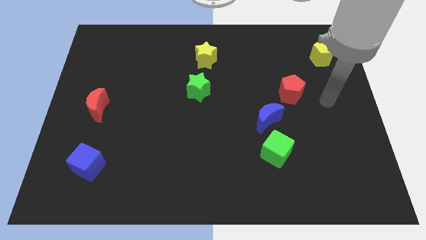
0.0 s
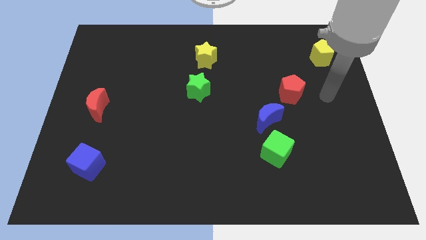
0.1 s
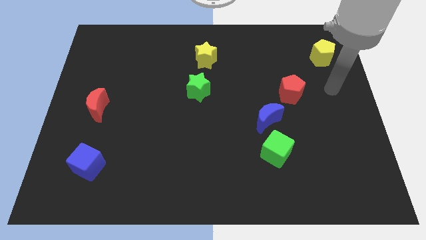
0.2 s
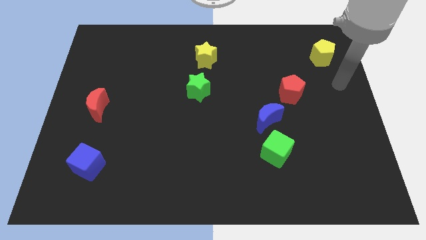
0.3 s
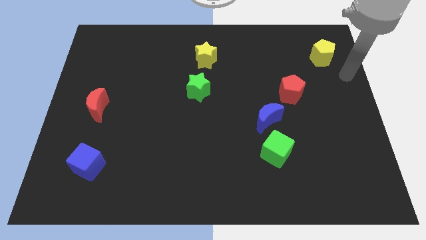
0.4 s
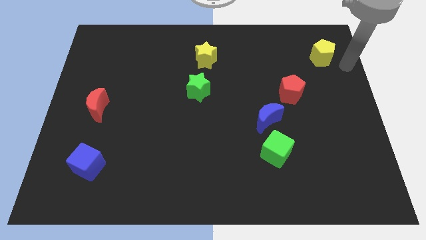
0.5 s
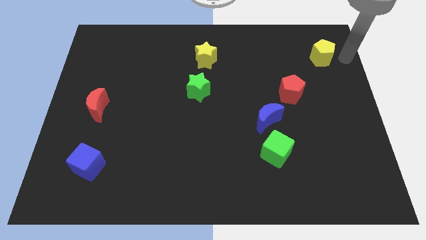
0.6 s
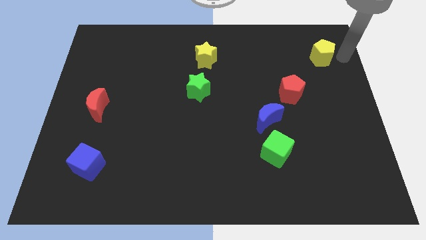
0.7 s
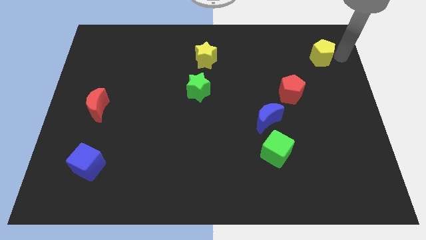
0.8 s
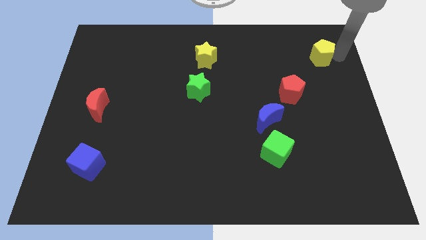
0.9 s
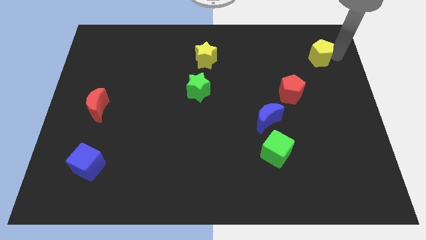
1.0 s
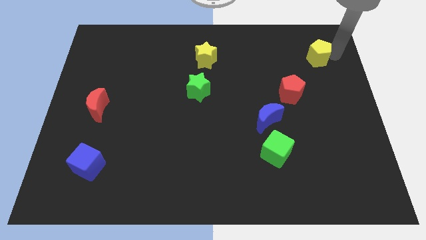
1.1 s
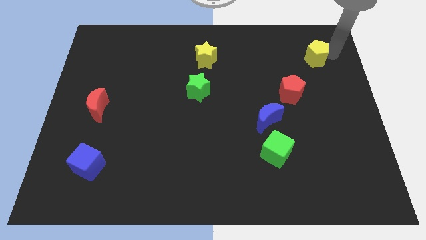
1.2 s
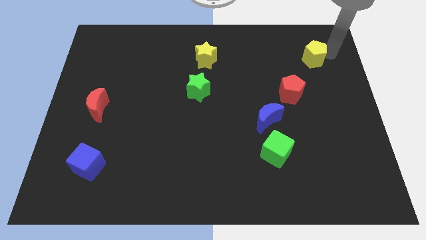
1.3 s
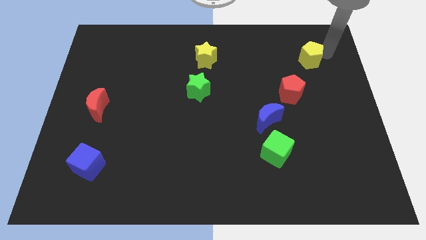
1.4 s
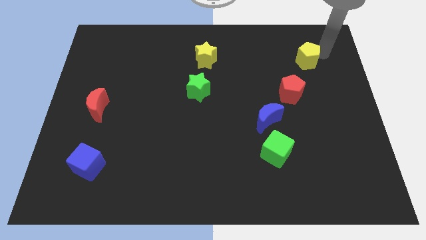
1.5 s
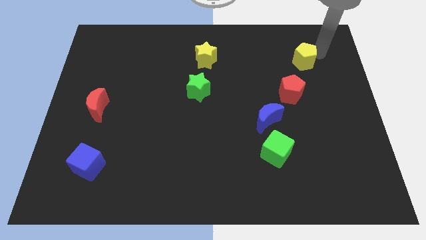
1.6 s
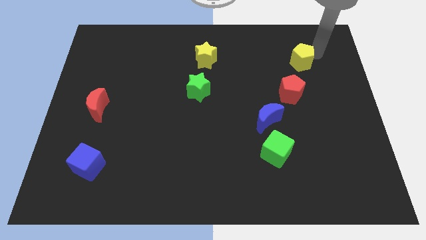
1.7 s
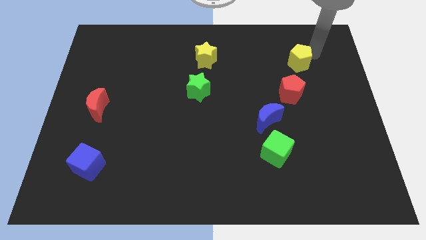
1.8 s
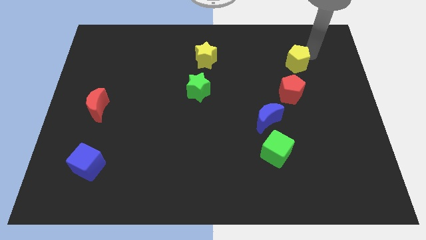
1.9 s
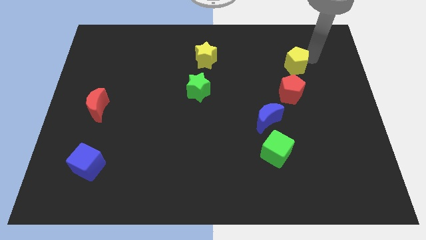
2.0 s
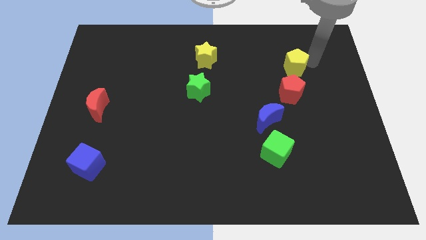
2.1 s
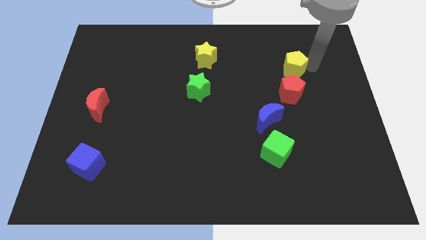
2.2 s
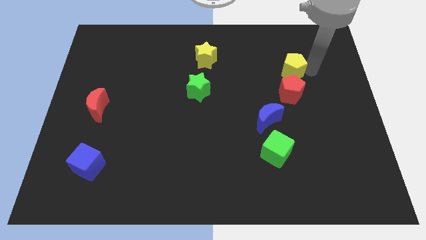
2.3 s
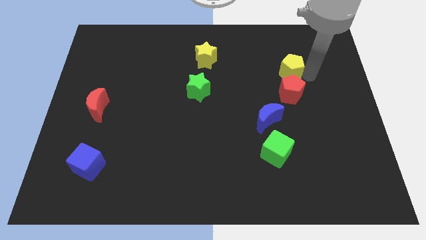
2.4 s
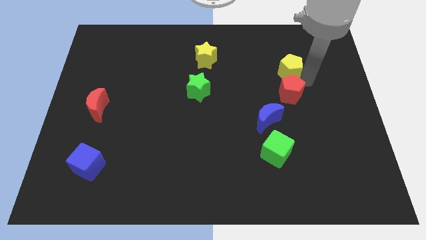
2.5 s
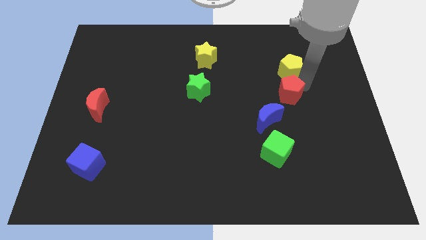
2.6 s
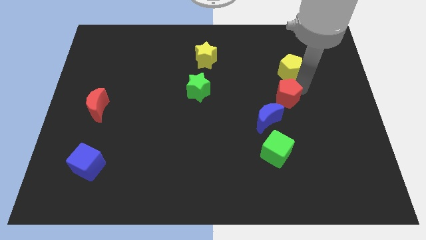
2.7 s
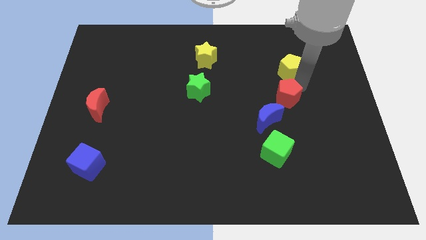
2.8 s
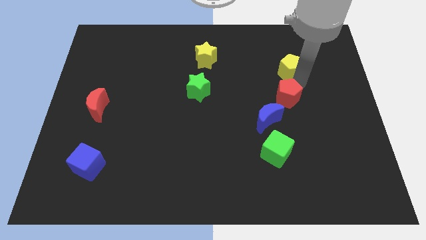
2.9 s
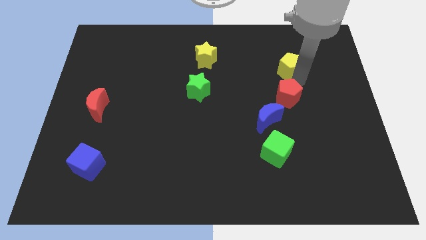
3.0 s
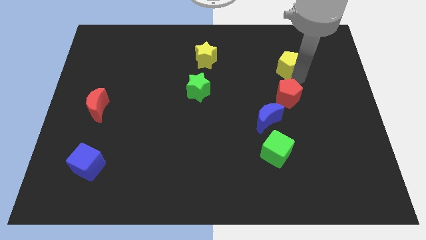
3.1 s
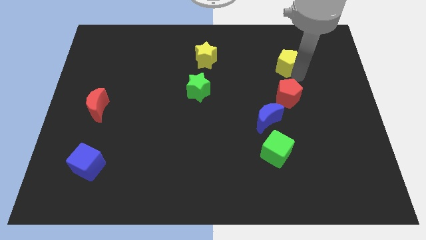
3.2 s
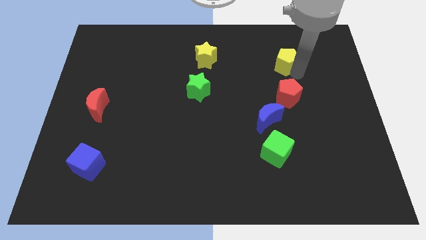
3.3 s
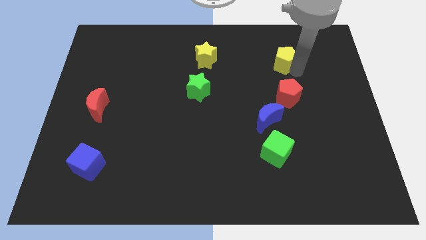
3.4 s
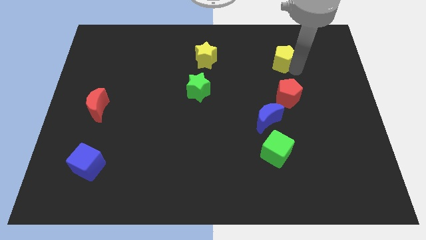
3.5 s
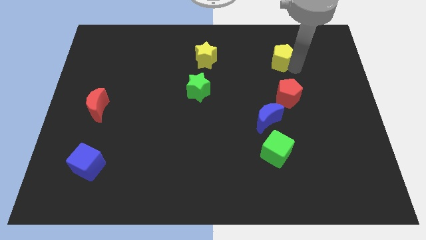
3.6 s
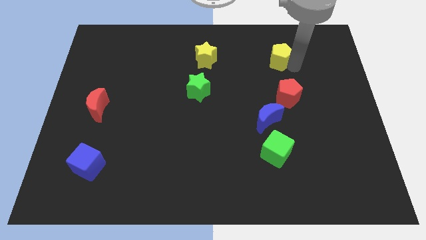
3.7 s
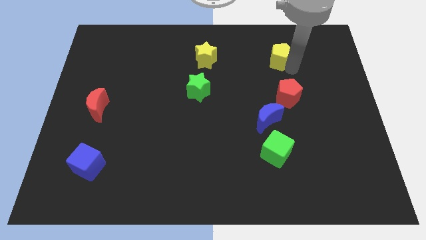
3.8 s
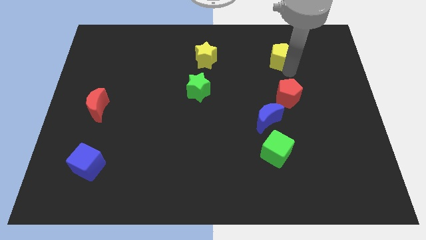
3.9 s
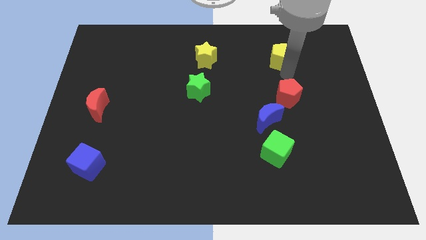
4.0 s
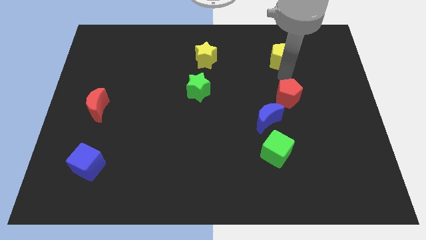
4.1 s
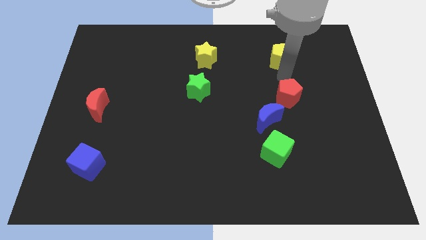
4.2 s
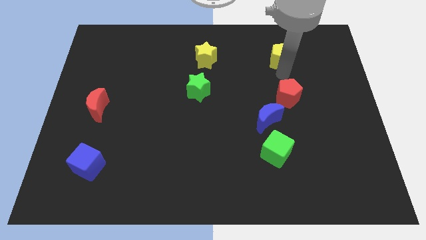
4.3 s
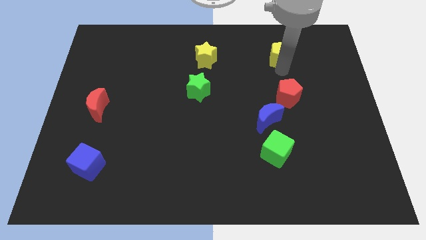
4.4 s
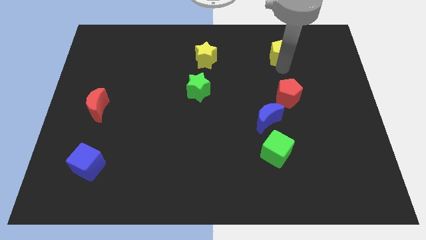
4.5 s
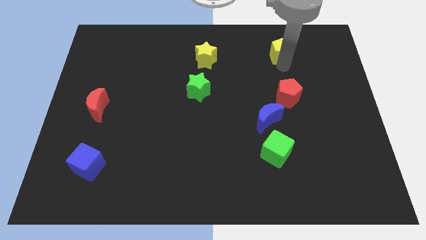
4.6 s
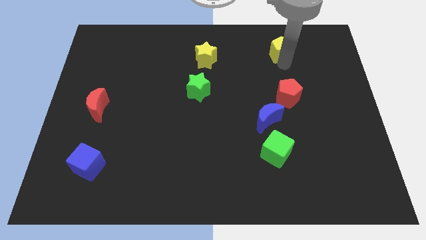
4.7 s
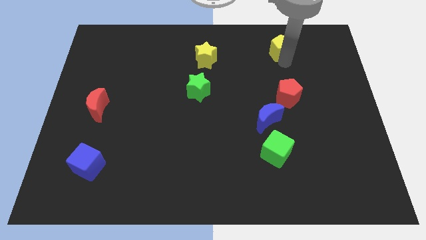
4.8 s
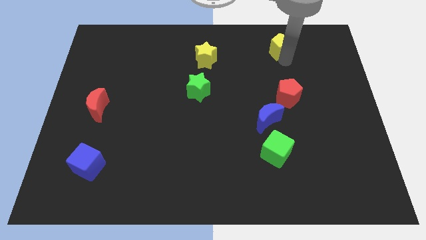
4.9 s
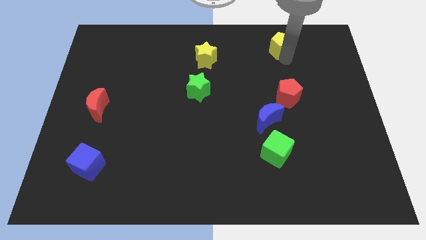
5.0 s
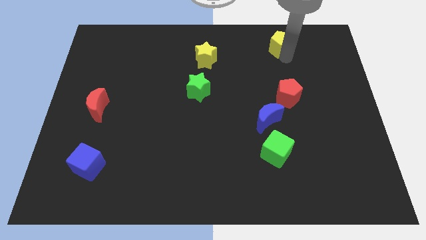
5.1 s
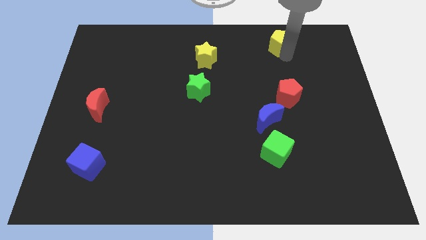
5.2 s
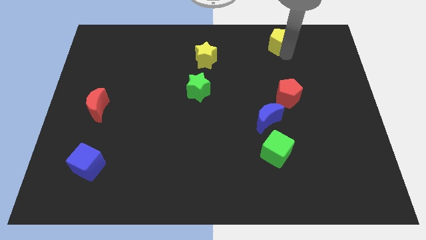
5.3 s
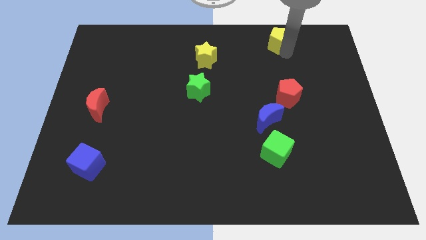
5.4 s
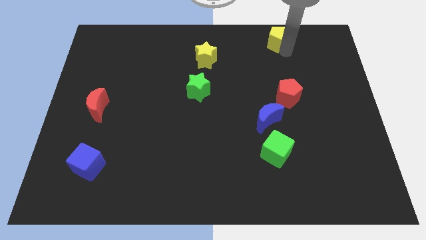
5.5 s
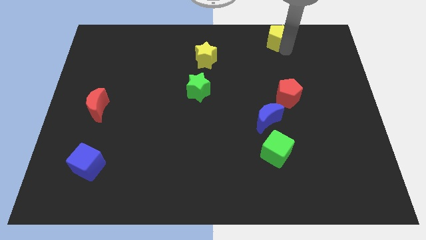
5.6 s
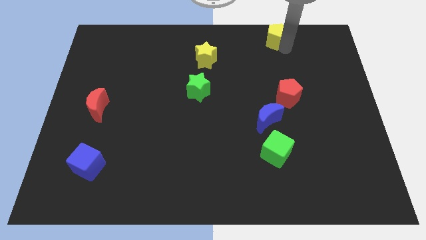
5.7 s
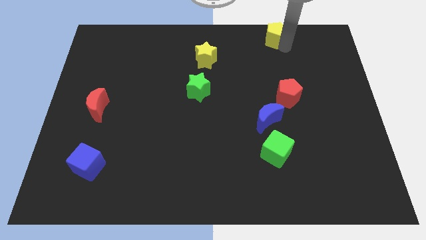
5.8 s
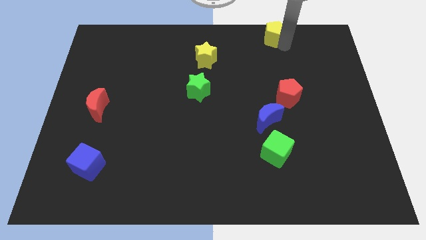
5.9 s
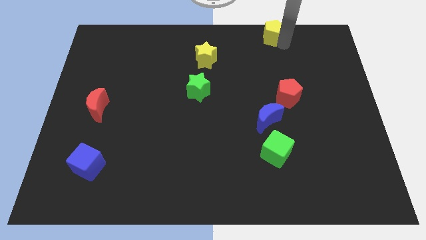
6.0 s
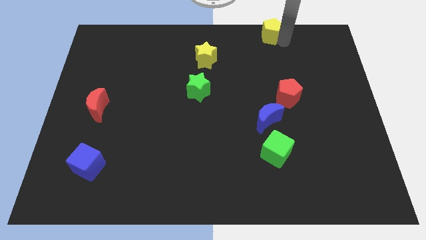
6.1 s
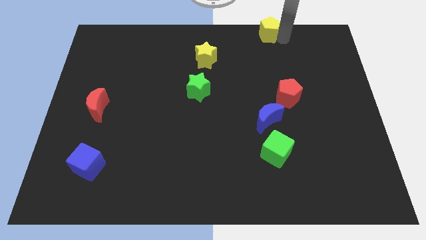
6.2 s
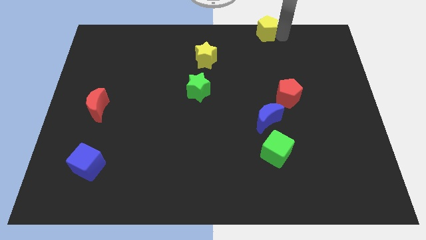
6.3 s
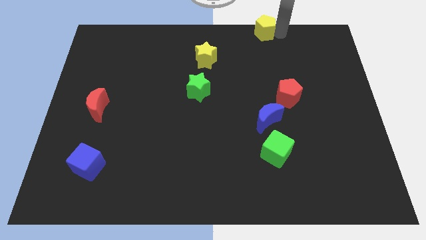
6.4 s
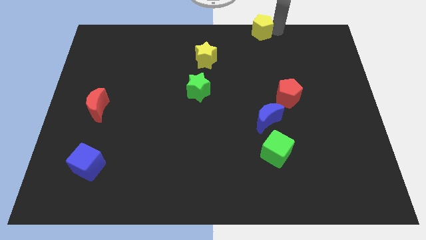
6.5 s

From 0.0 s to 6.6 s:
move the yellow pentagon to the towards your base

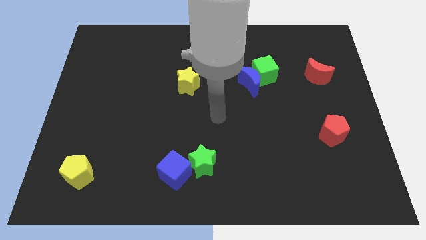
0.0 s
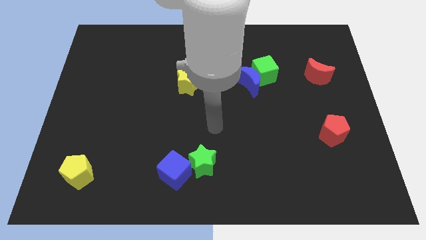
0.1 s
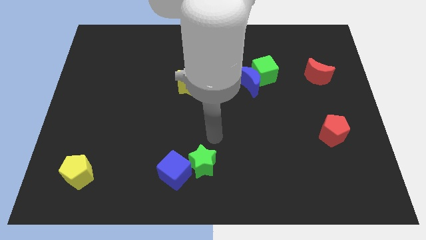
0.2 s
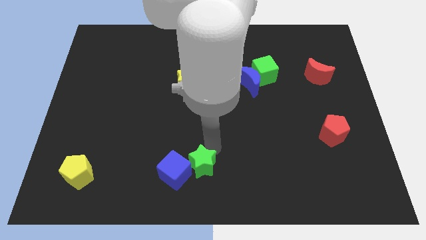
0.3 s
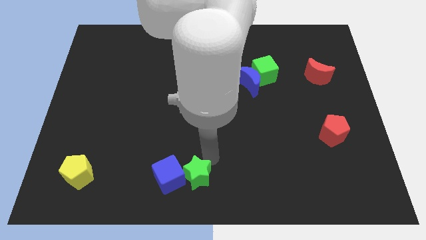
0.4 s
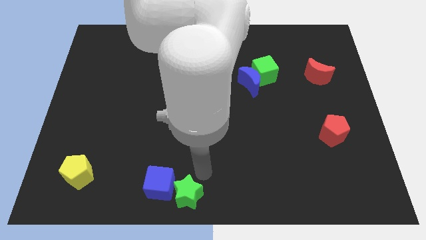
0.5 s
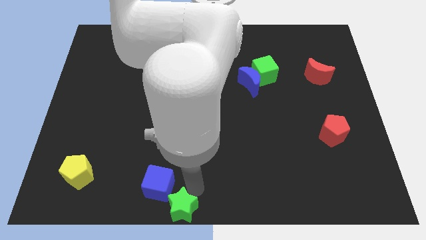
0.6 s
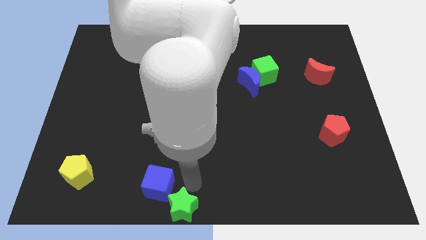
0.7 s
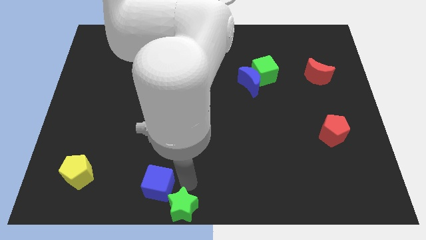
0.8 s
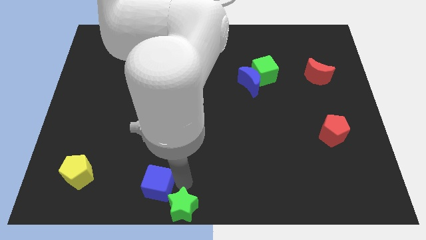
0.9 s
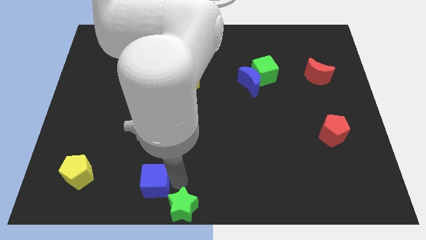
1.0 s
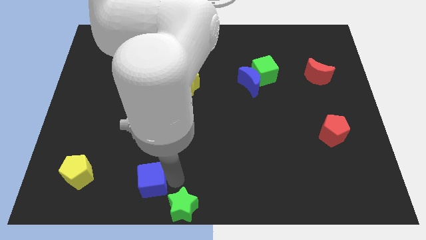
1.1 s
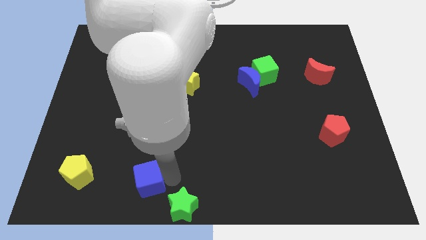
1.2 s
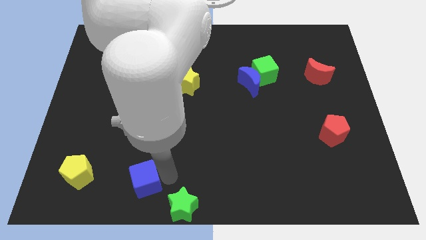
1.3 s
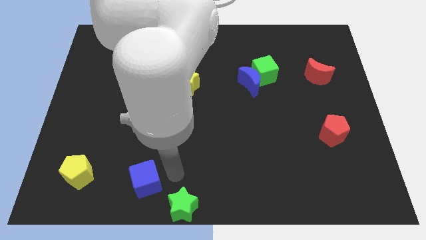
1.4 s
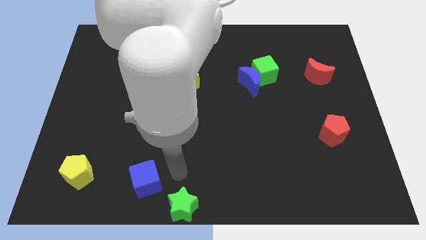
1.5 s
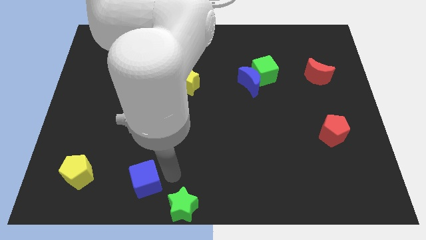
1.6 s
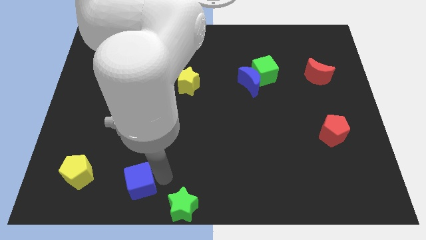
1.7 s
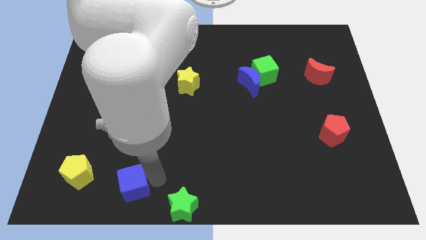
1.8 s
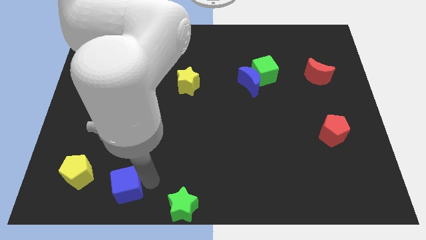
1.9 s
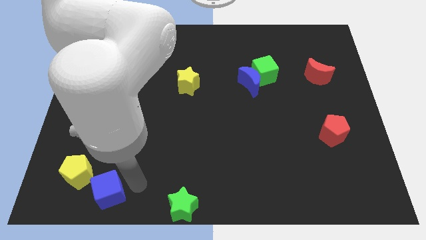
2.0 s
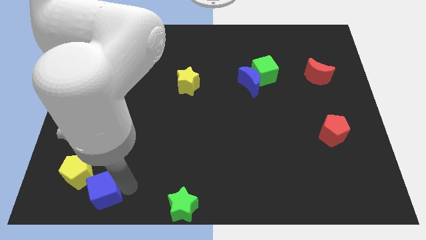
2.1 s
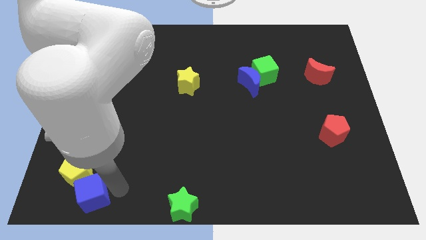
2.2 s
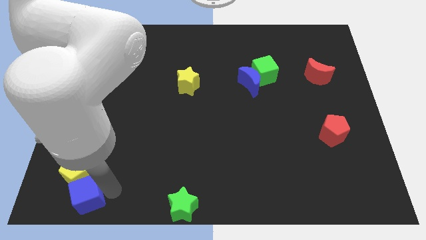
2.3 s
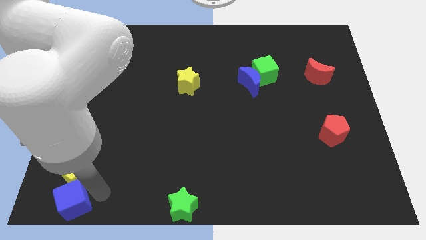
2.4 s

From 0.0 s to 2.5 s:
put the blue cube to the bottom left corner
